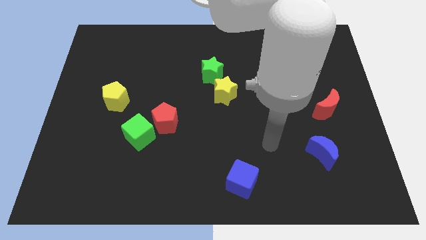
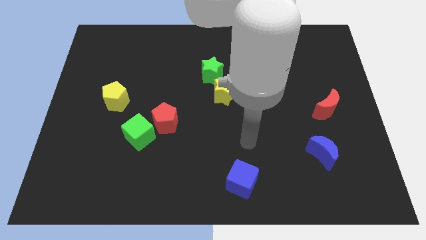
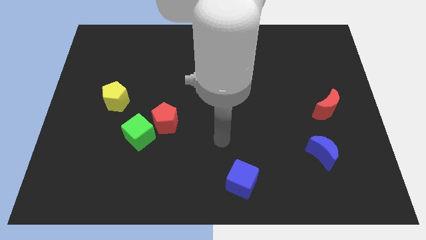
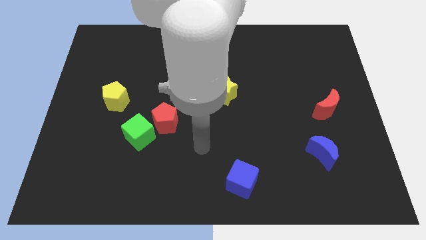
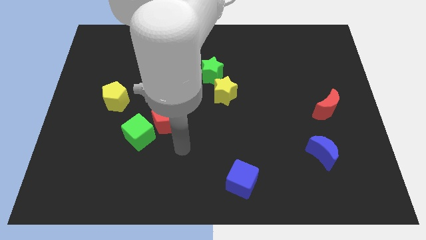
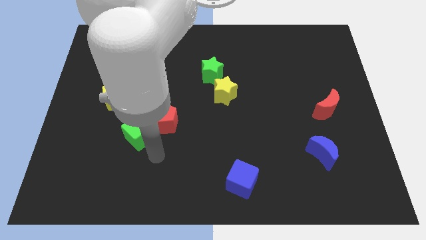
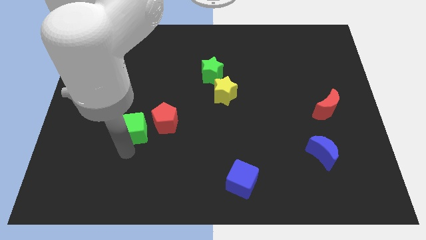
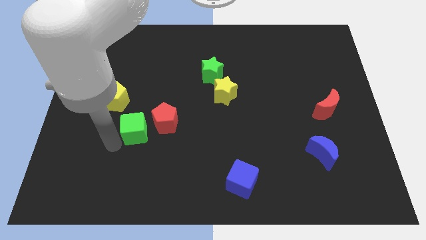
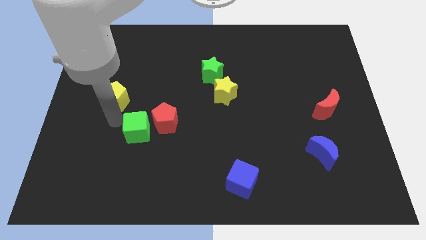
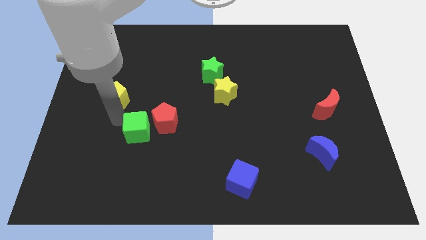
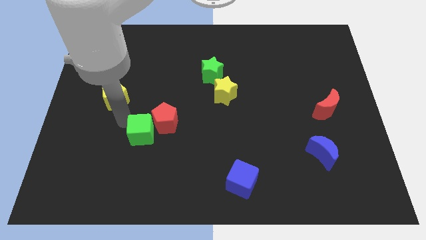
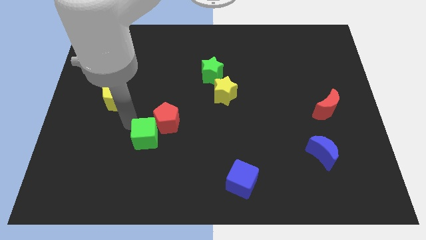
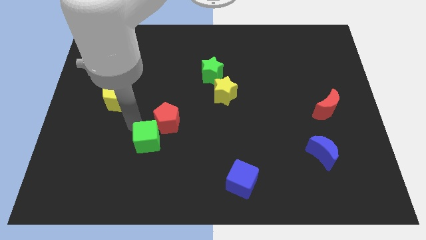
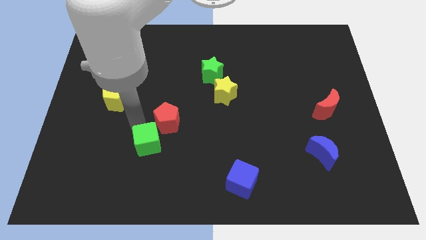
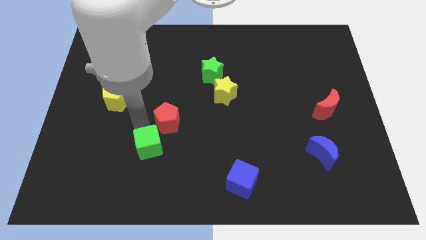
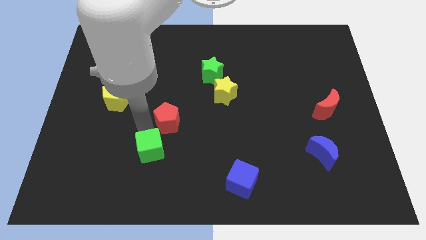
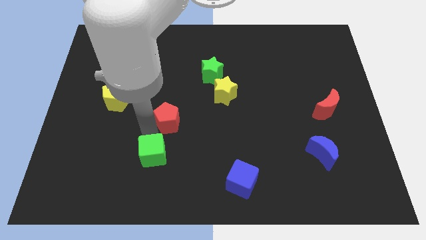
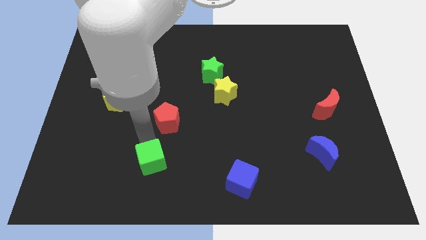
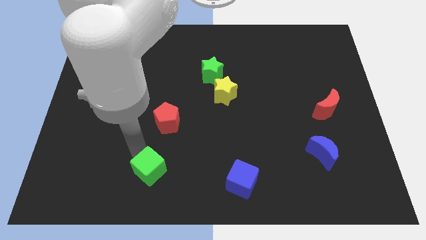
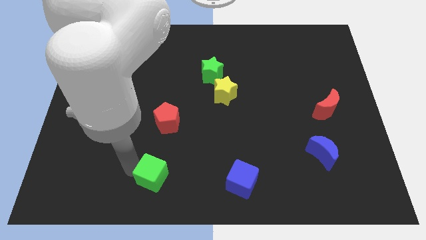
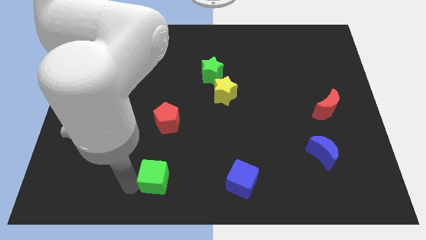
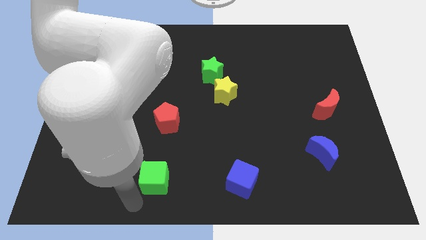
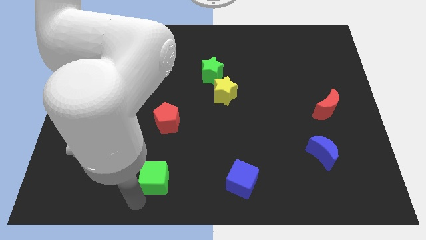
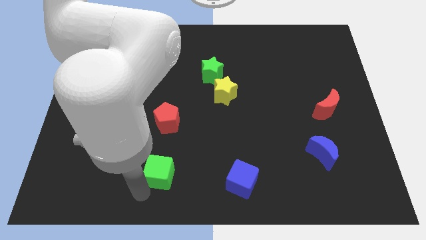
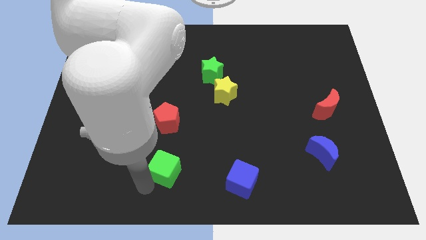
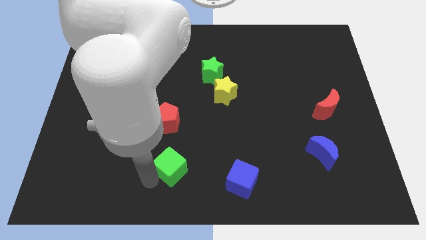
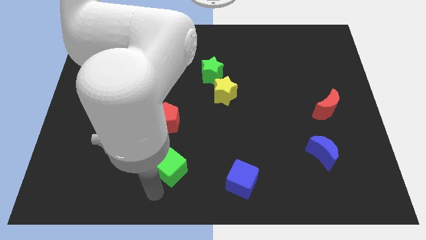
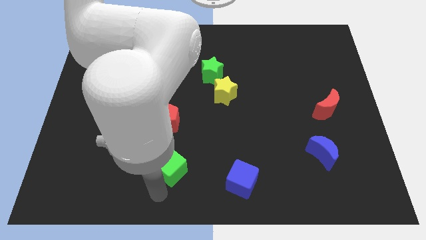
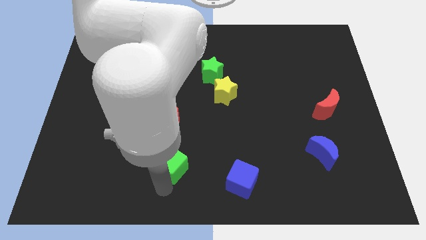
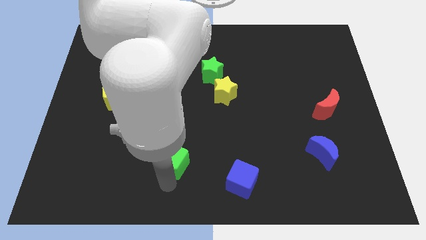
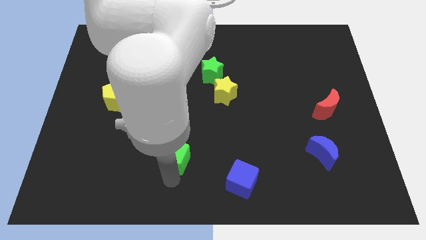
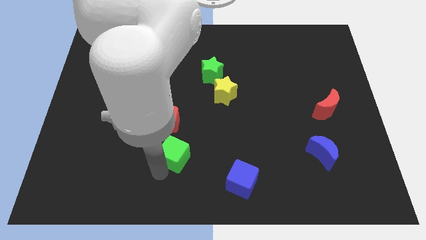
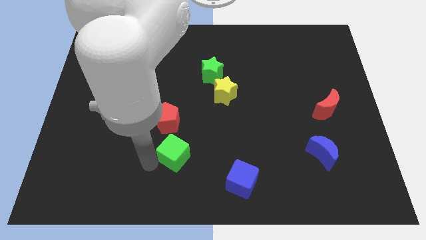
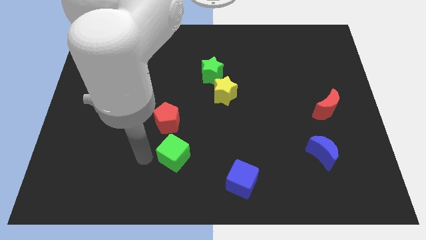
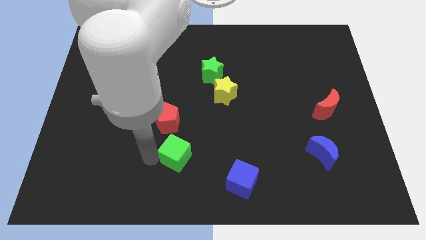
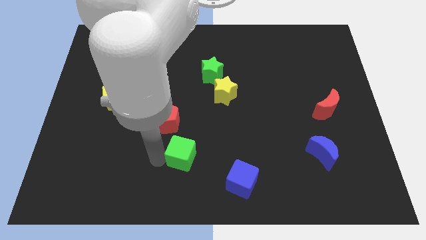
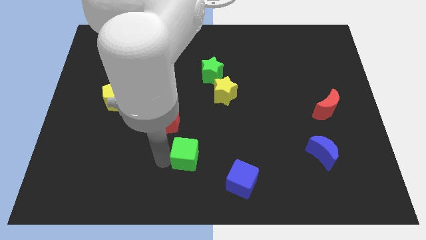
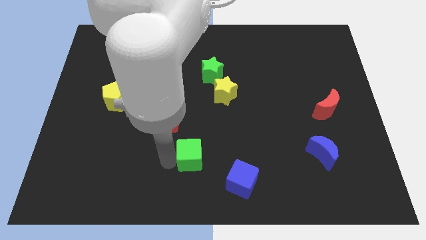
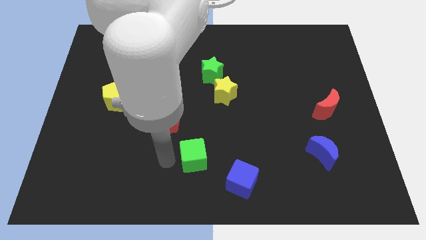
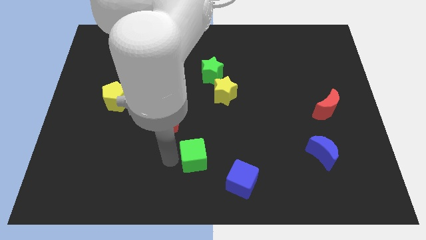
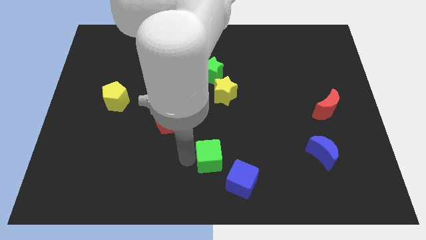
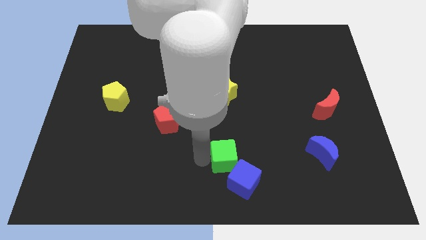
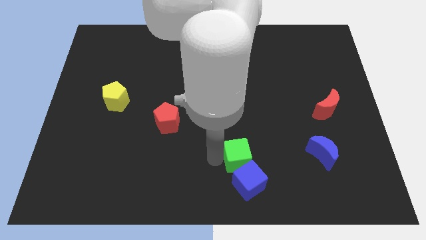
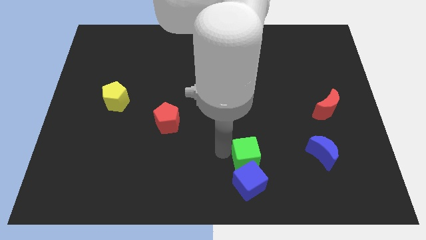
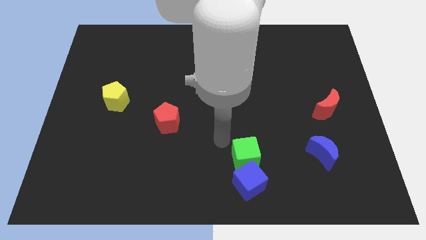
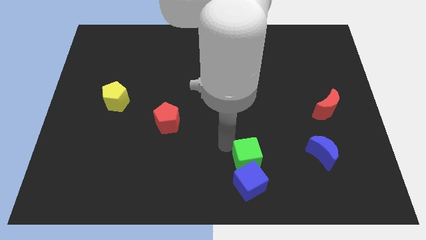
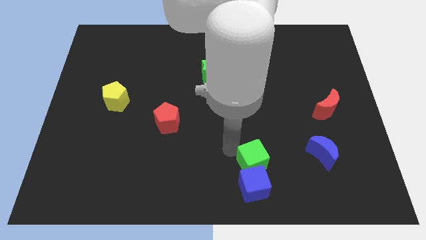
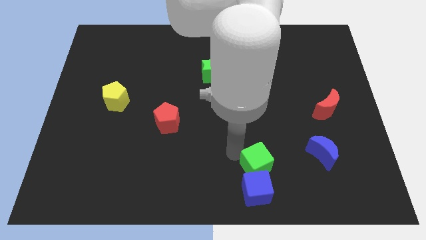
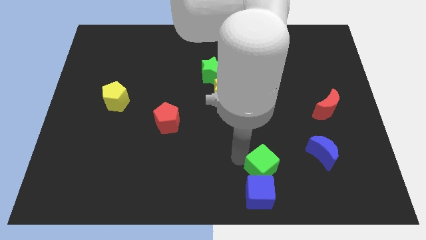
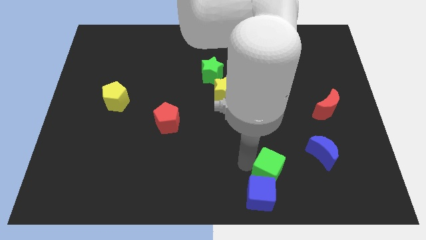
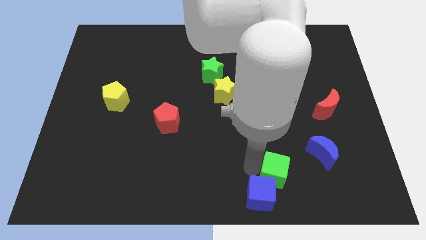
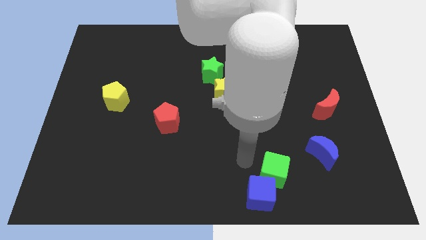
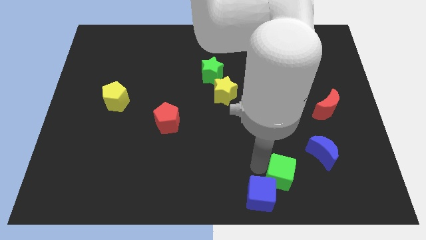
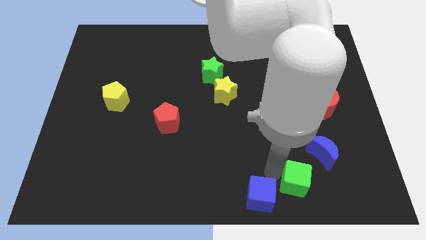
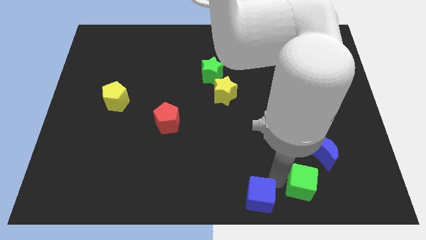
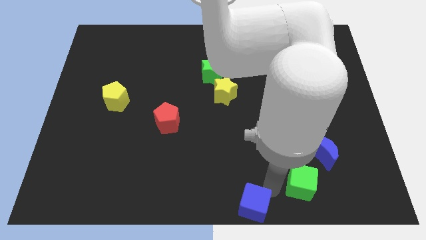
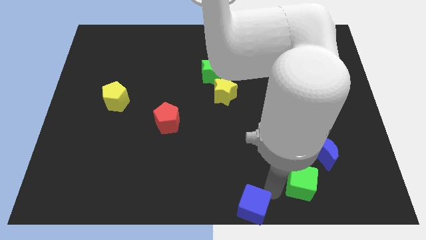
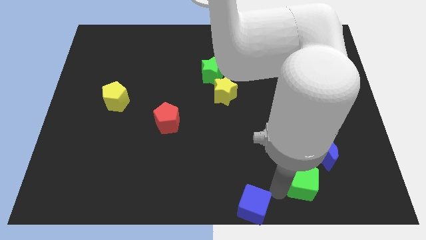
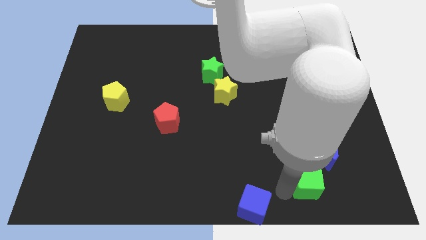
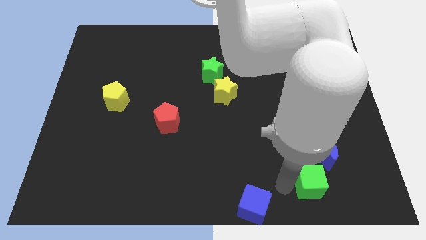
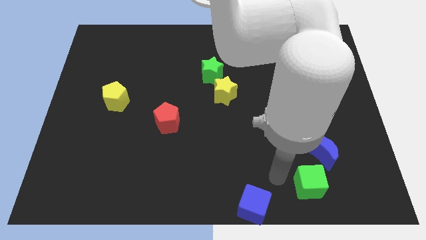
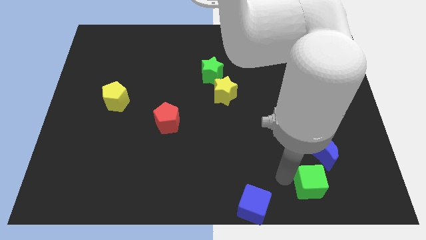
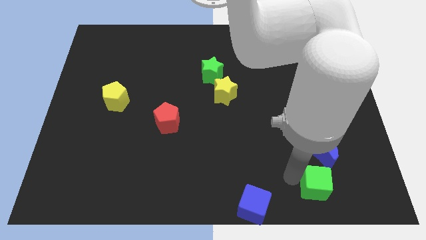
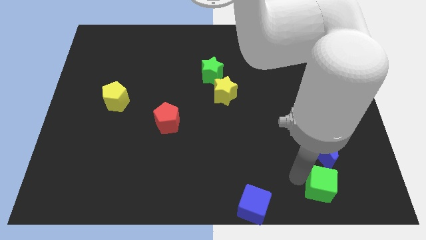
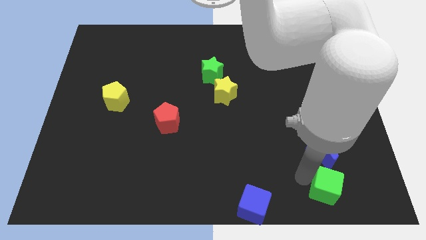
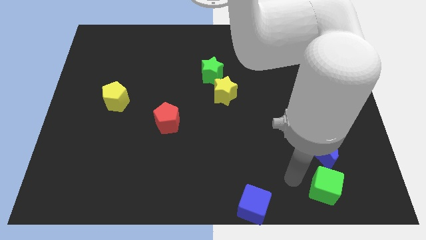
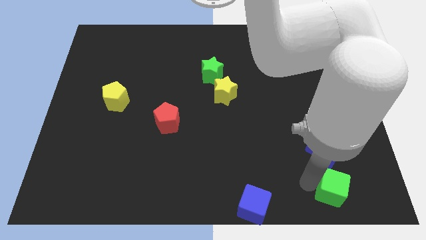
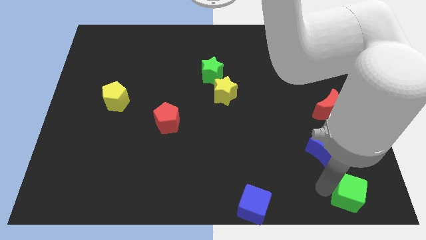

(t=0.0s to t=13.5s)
put the green cube to the bottom right of the board
